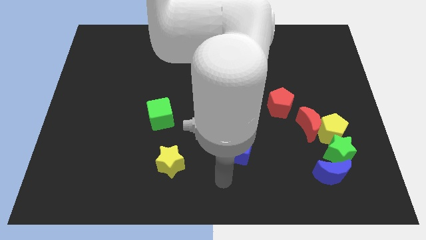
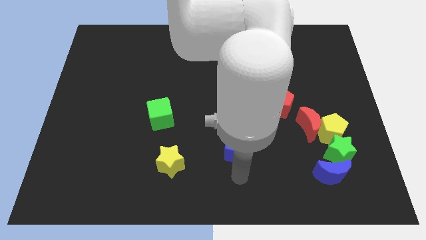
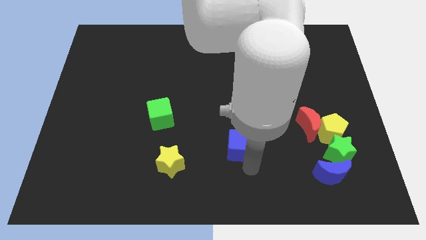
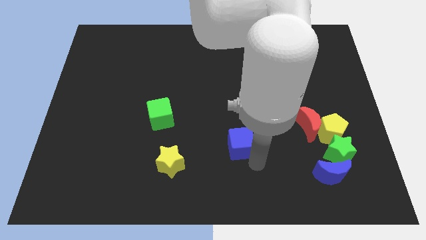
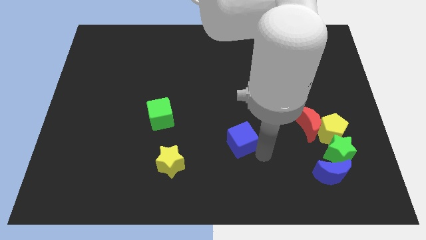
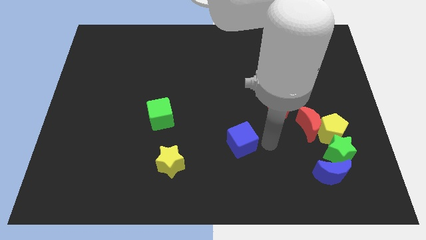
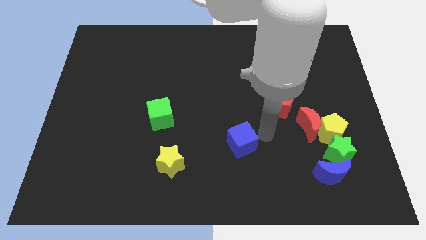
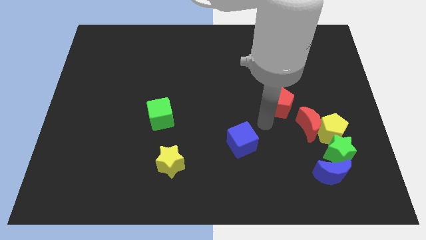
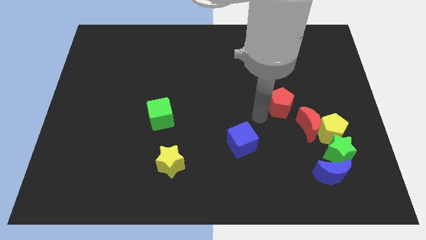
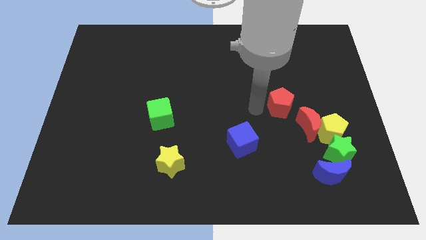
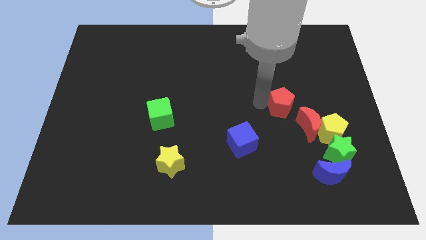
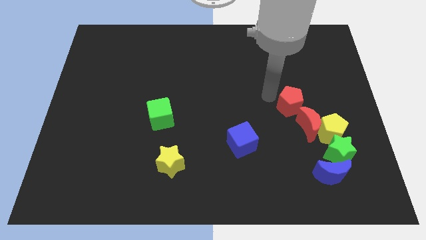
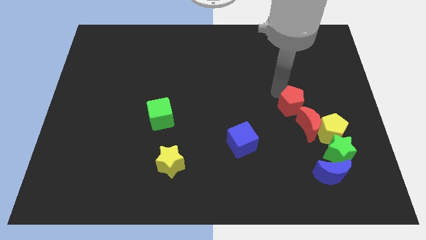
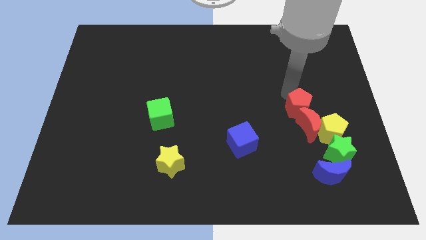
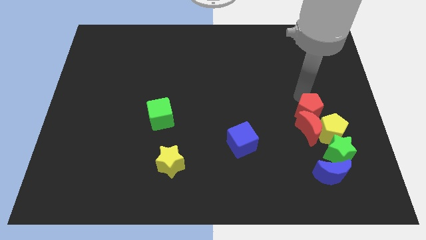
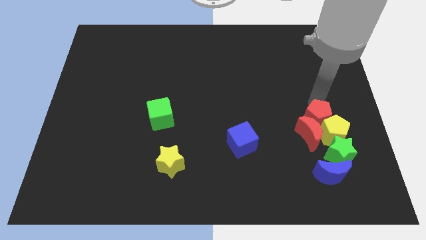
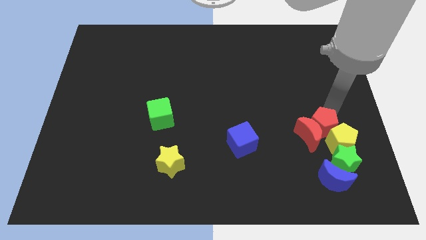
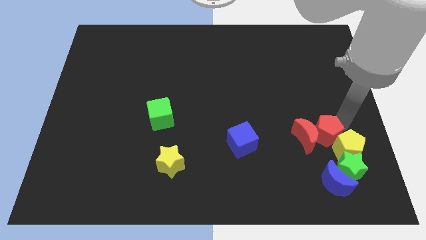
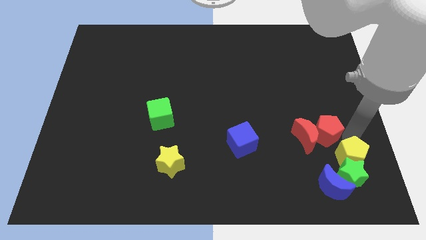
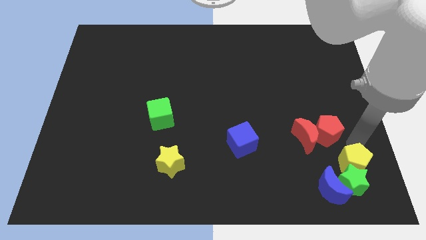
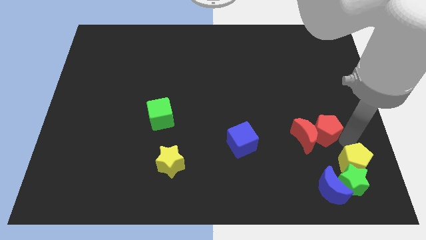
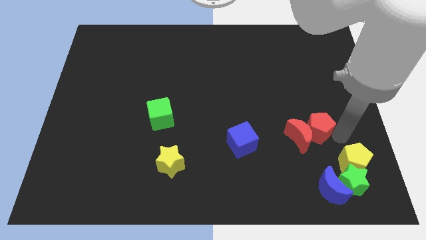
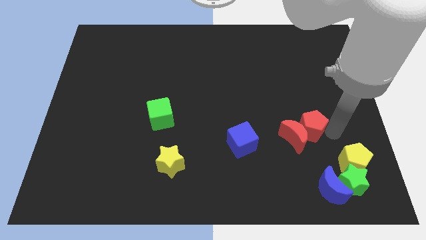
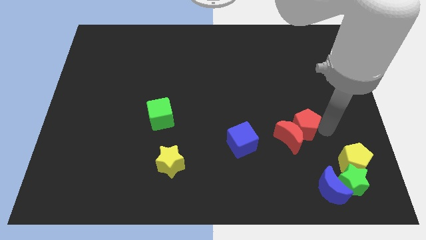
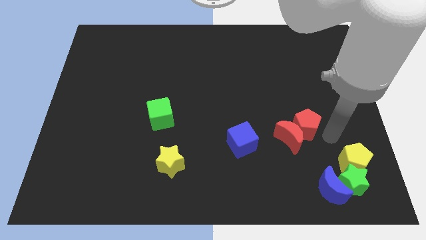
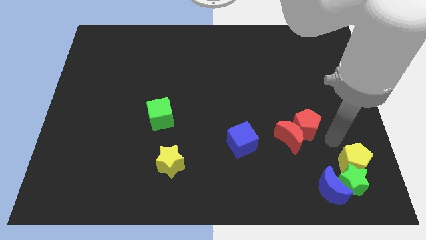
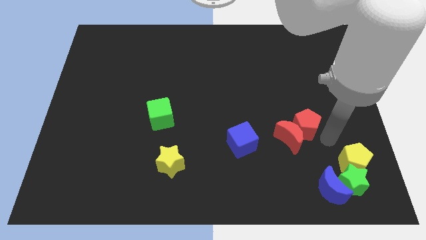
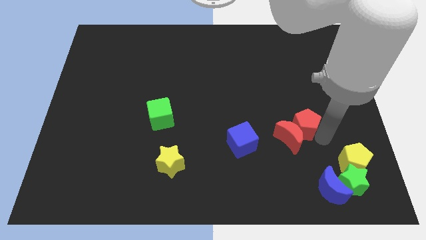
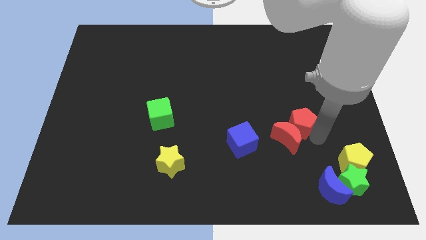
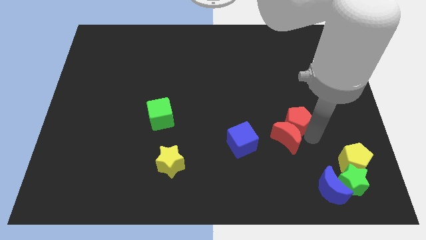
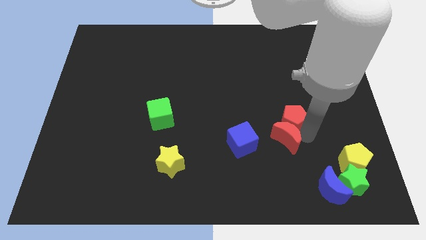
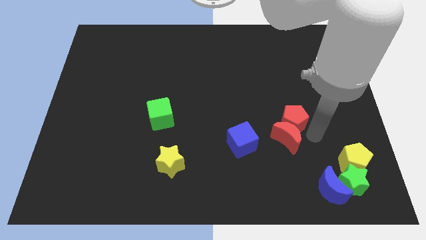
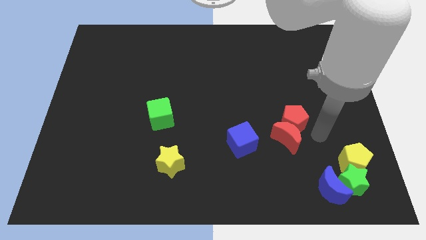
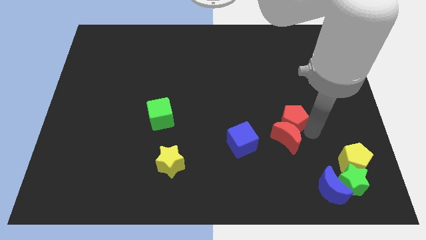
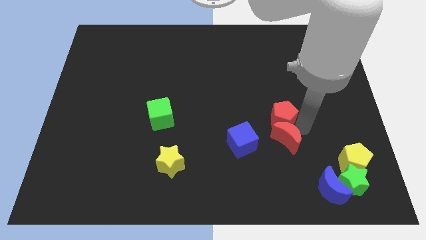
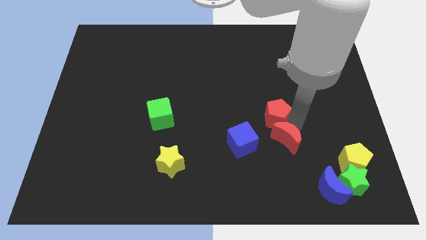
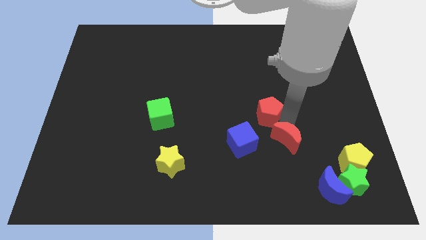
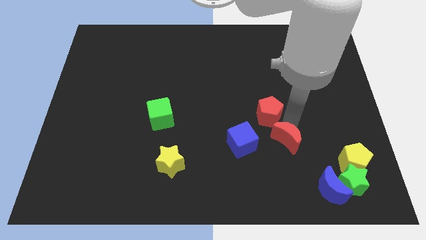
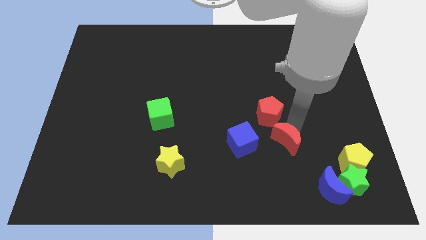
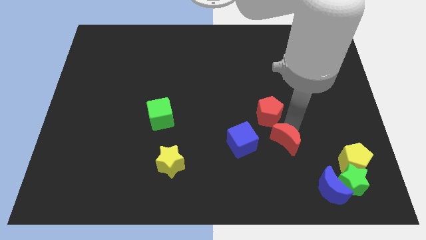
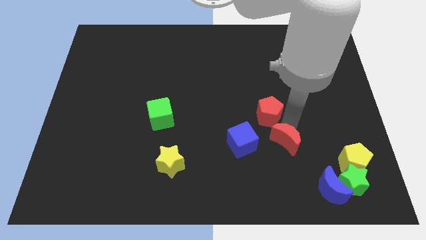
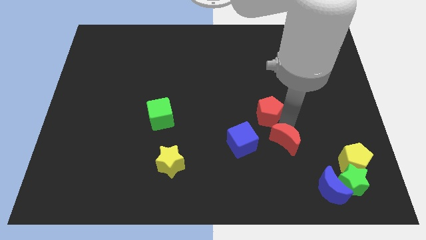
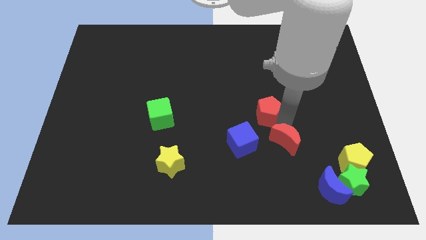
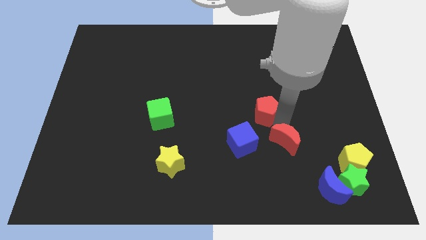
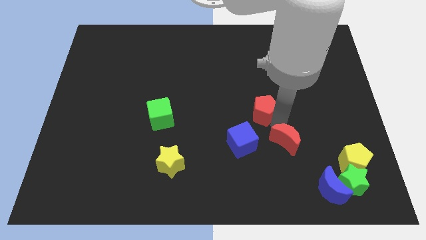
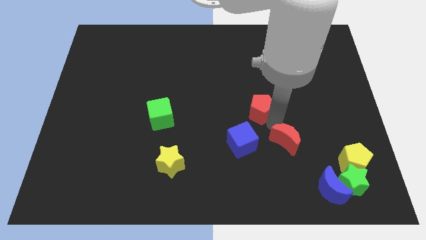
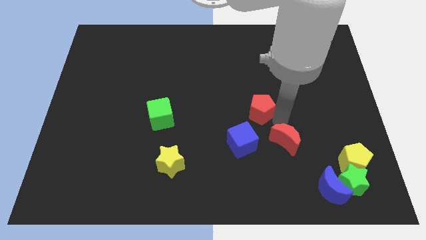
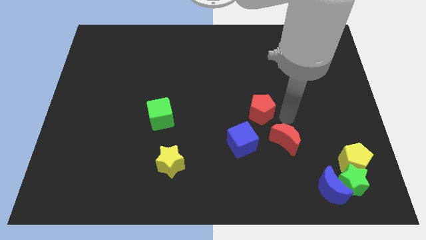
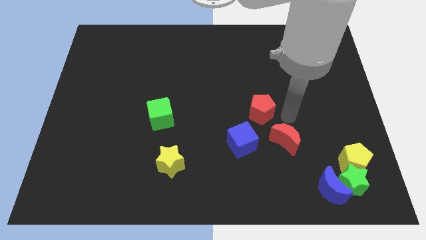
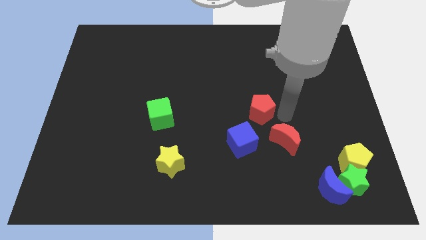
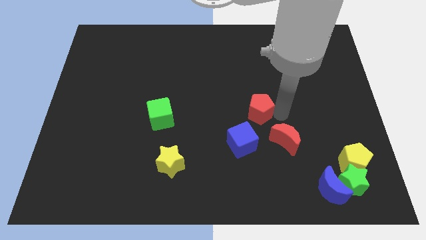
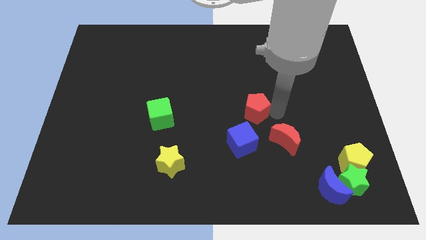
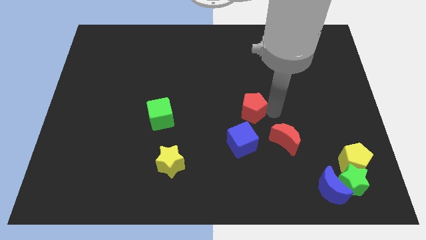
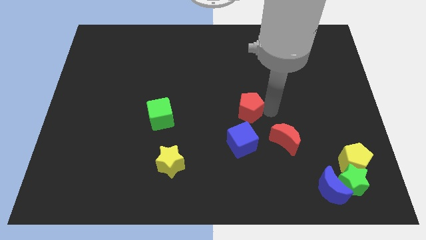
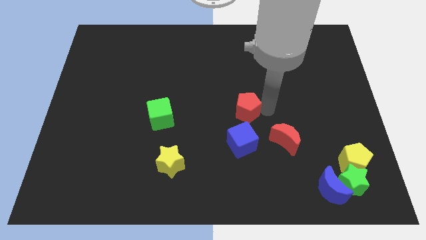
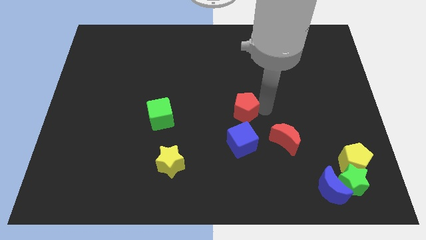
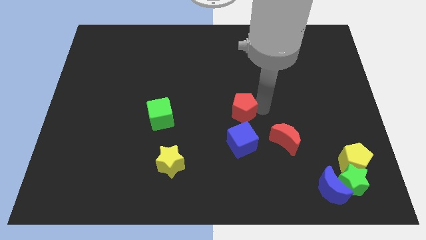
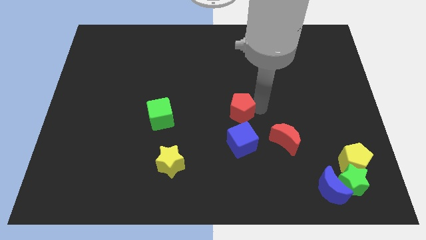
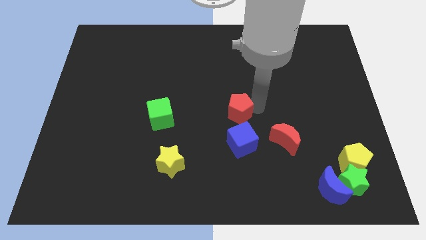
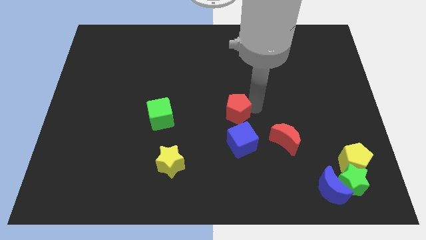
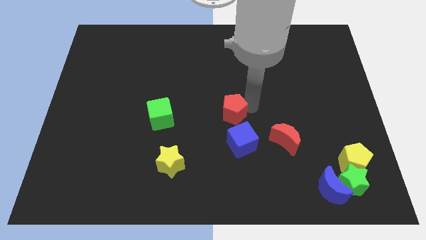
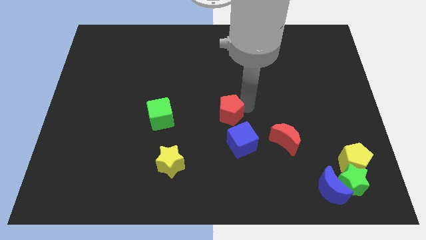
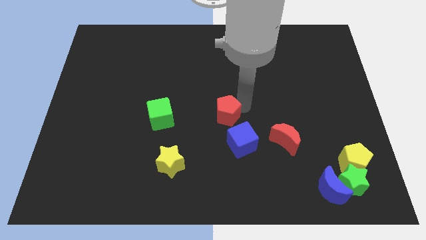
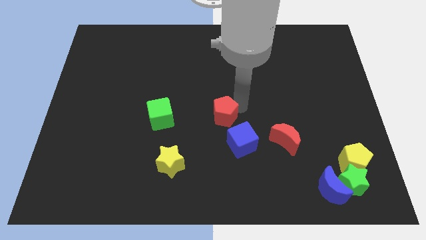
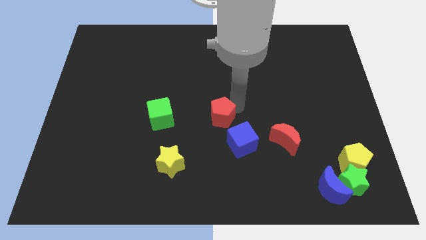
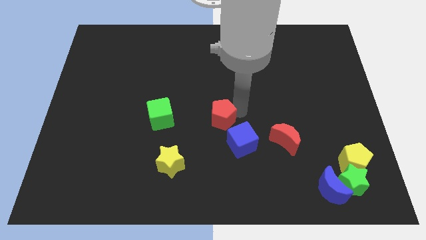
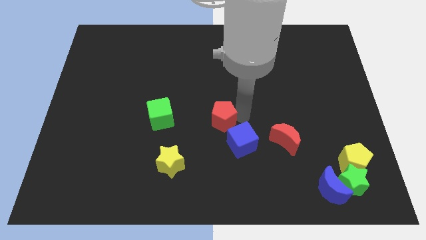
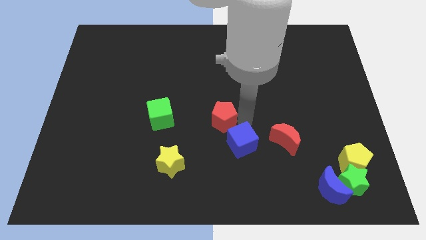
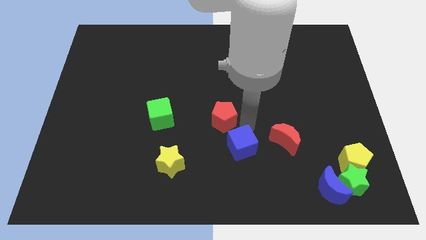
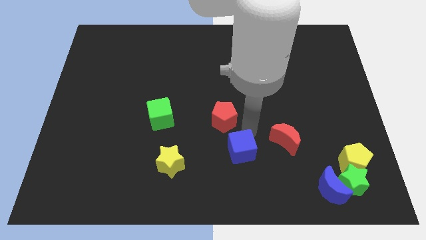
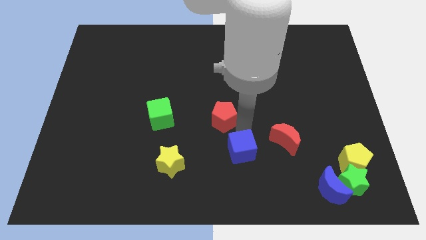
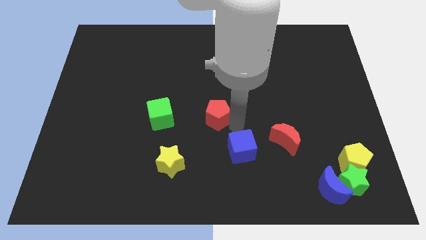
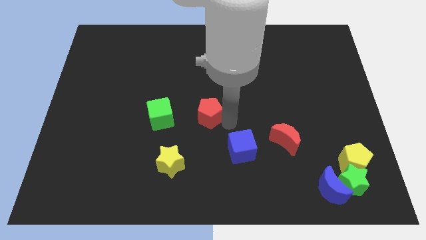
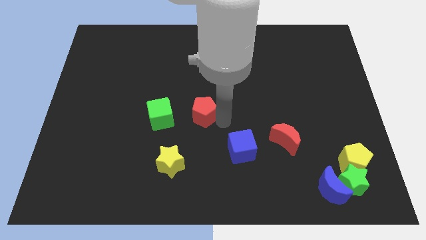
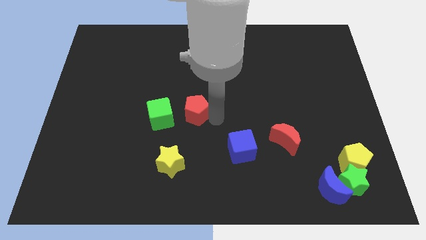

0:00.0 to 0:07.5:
move the red pentagon to the top side of the yellow star
